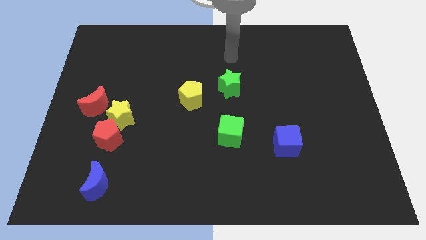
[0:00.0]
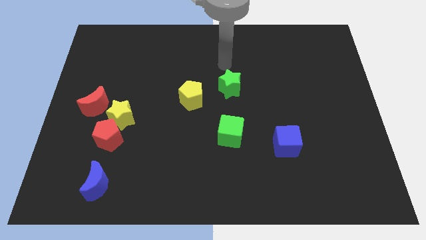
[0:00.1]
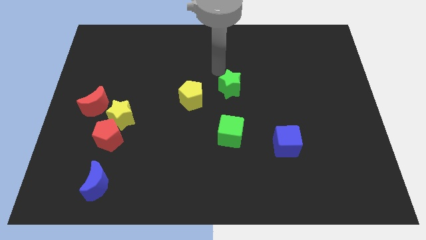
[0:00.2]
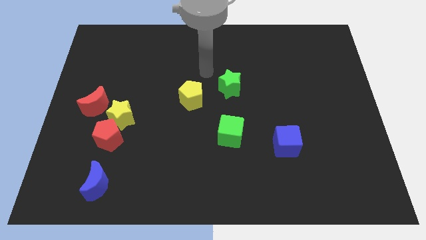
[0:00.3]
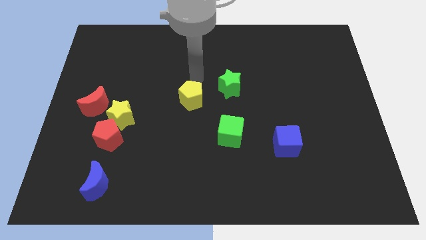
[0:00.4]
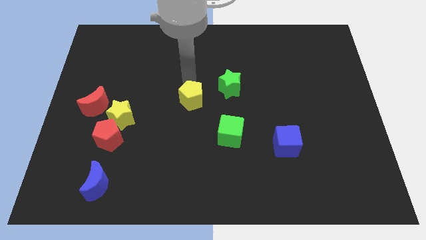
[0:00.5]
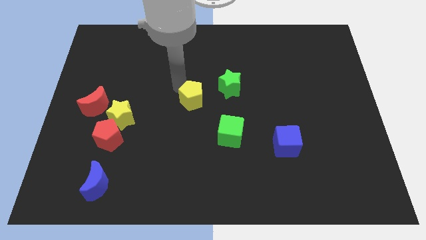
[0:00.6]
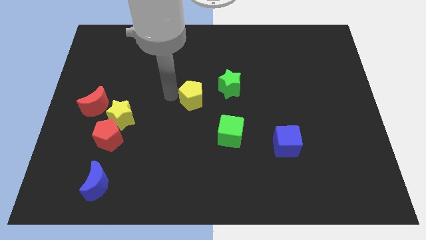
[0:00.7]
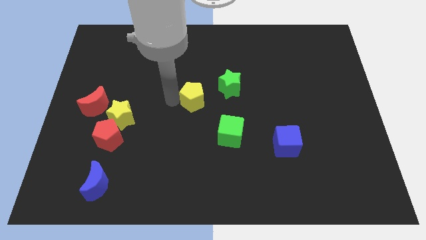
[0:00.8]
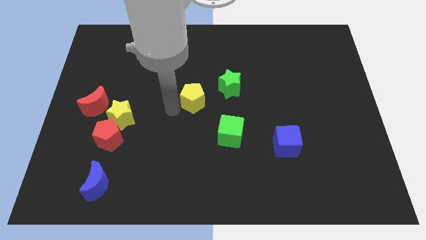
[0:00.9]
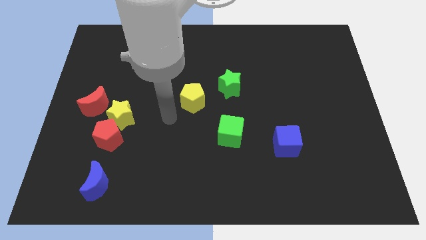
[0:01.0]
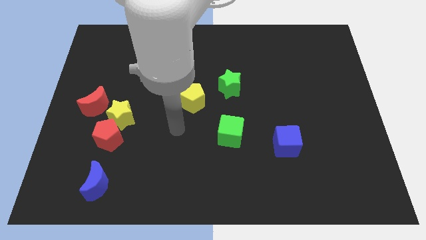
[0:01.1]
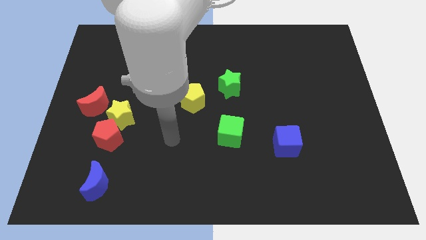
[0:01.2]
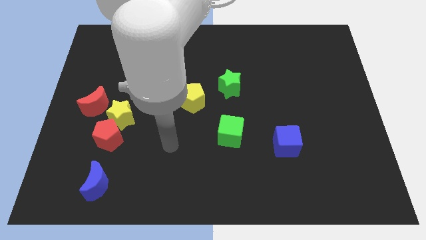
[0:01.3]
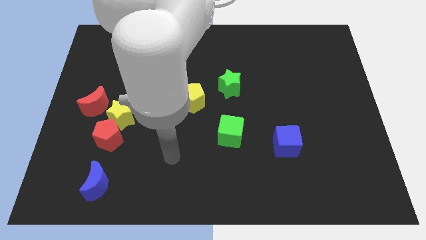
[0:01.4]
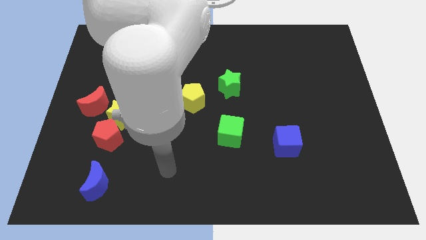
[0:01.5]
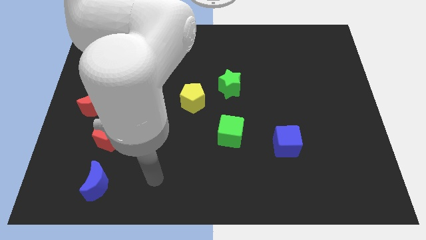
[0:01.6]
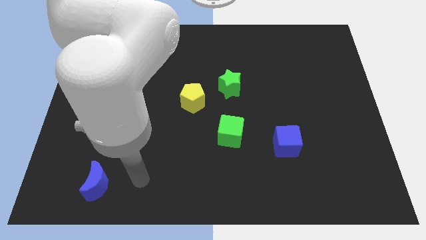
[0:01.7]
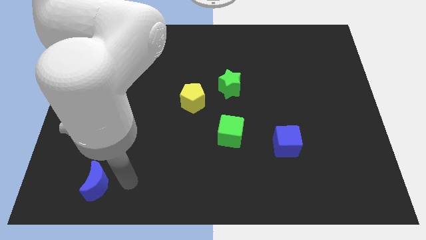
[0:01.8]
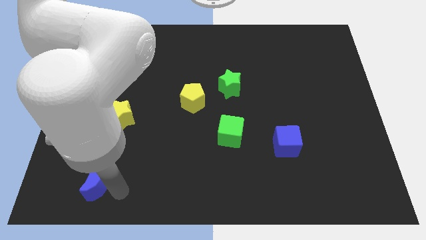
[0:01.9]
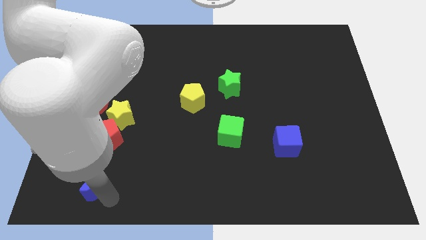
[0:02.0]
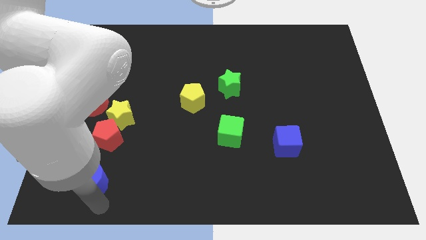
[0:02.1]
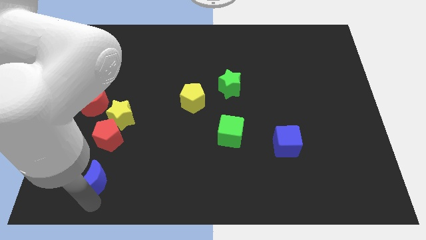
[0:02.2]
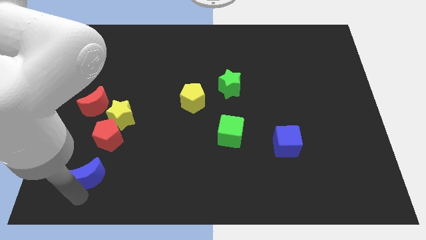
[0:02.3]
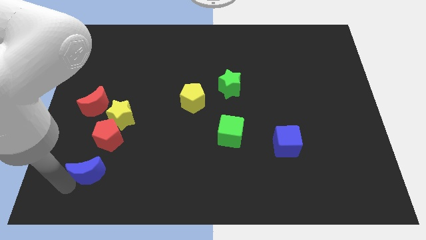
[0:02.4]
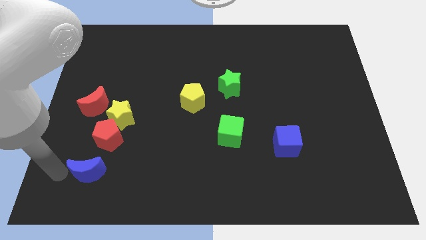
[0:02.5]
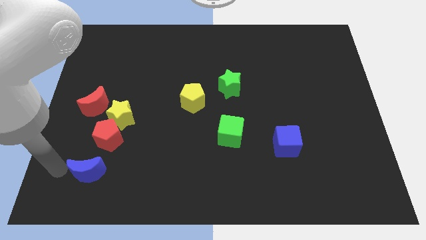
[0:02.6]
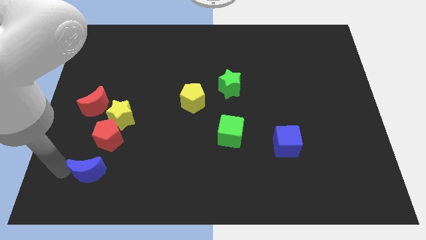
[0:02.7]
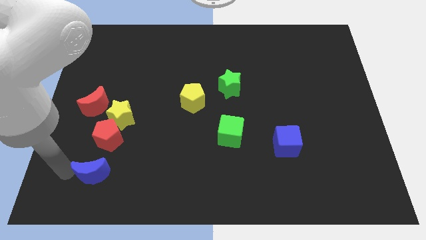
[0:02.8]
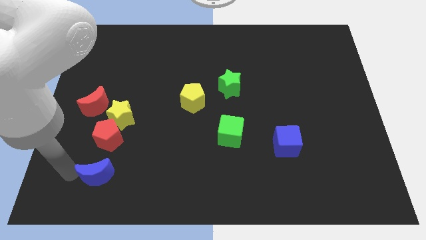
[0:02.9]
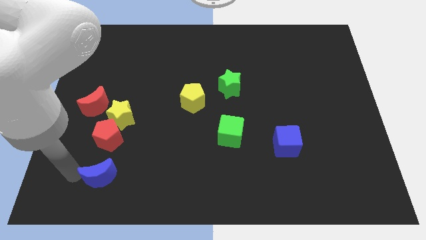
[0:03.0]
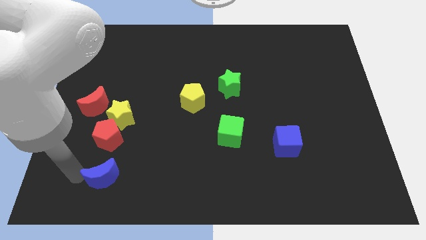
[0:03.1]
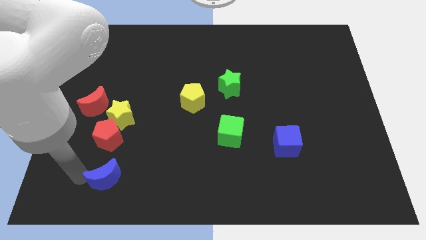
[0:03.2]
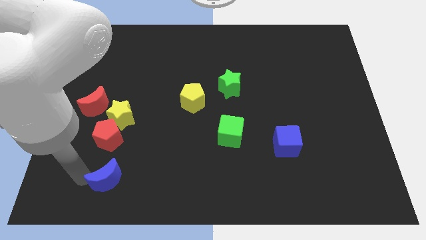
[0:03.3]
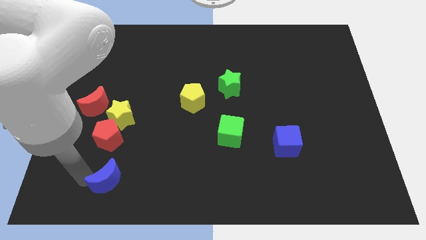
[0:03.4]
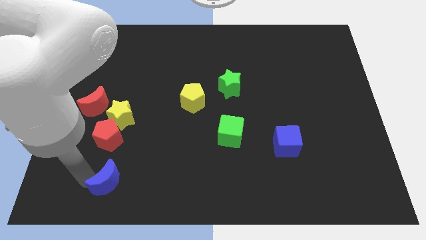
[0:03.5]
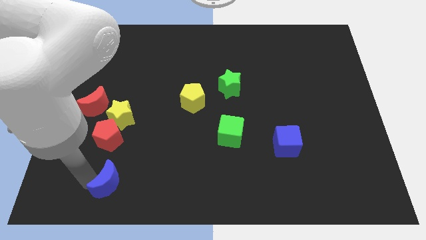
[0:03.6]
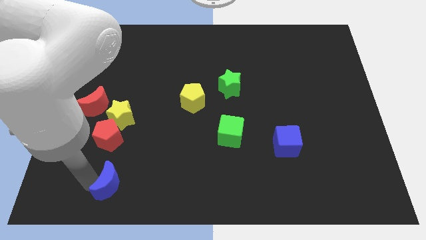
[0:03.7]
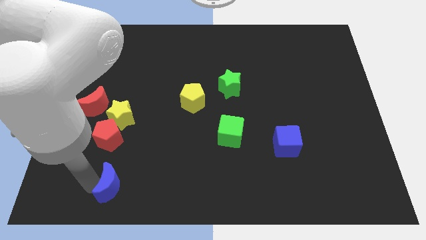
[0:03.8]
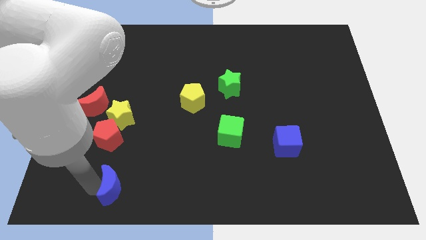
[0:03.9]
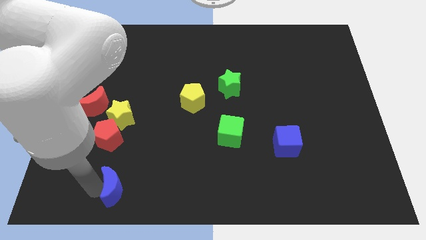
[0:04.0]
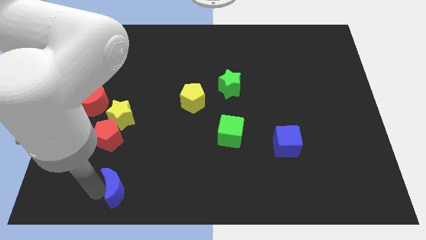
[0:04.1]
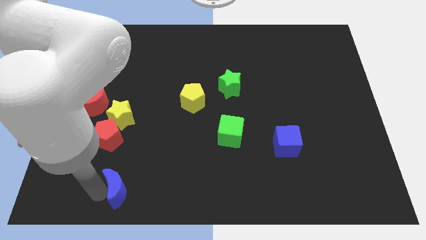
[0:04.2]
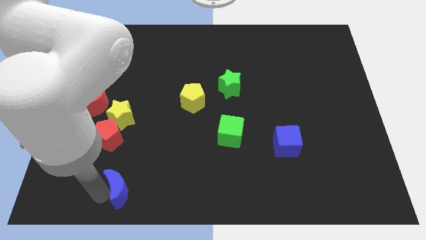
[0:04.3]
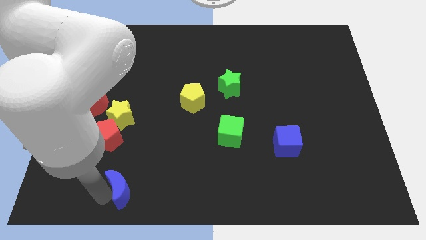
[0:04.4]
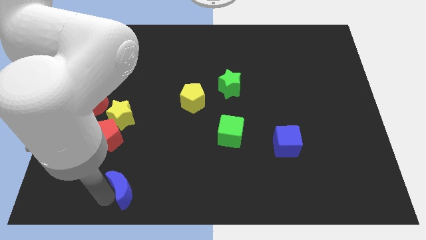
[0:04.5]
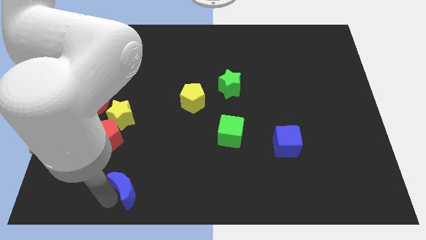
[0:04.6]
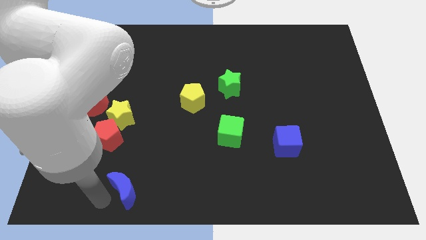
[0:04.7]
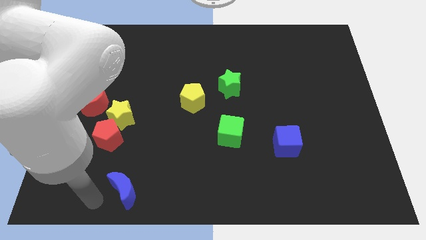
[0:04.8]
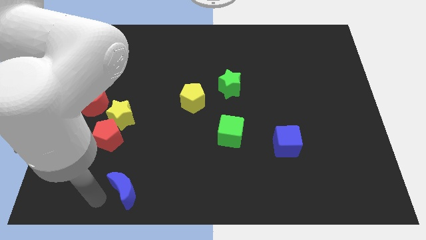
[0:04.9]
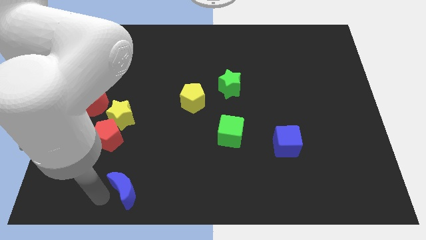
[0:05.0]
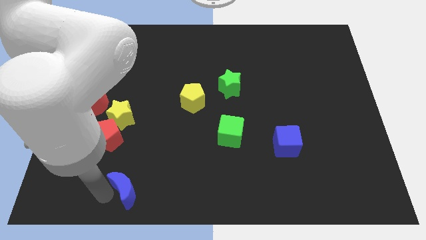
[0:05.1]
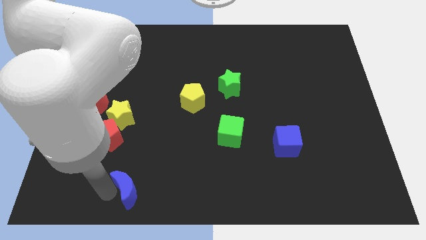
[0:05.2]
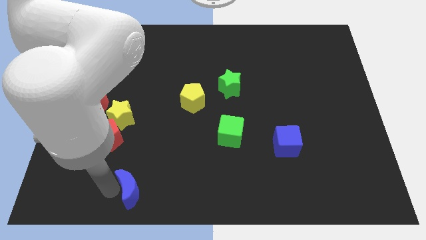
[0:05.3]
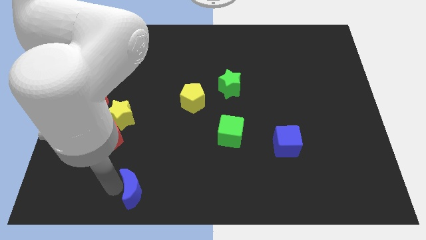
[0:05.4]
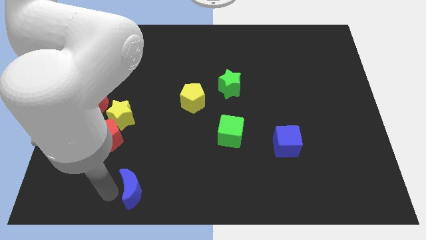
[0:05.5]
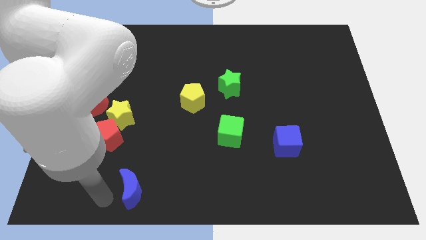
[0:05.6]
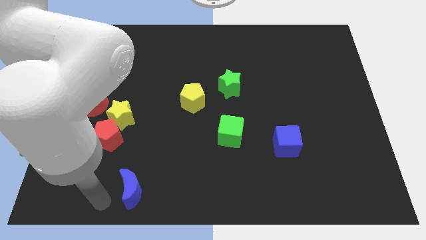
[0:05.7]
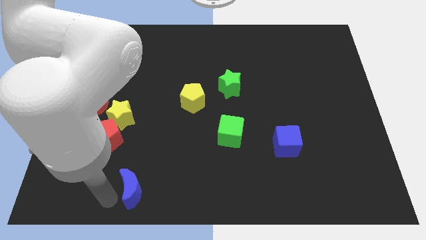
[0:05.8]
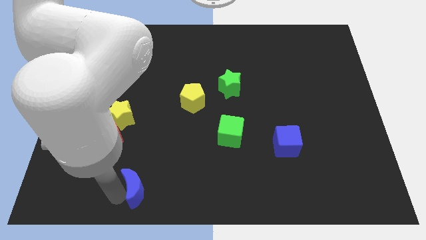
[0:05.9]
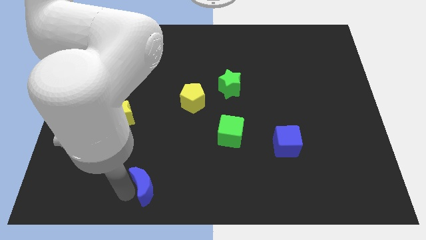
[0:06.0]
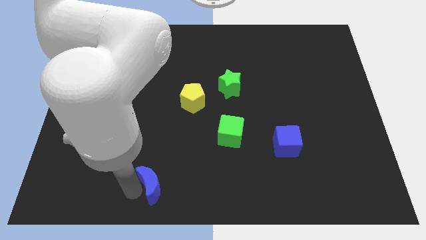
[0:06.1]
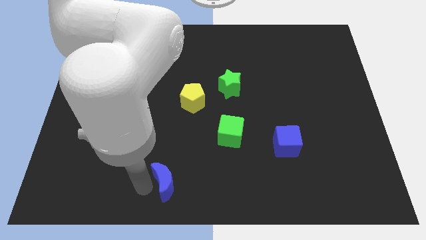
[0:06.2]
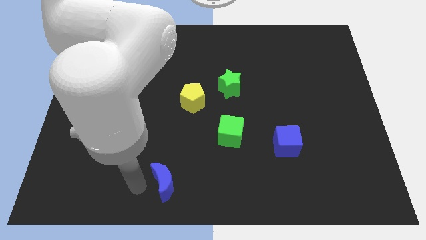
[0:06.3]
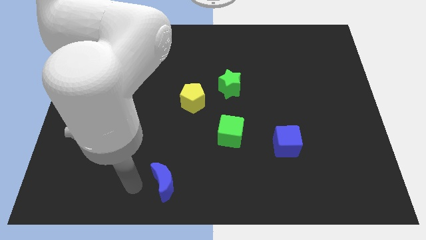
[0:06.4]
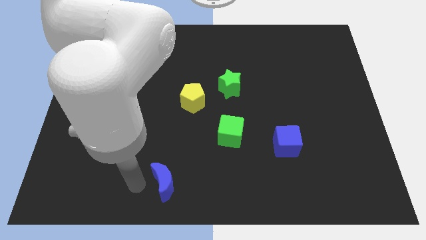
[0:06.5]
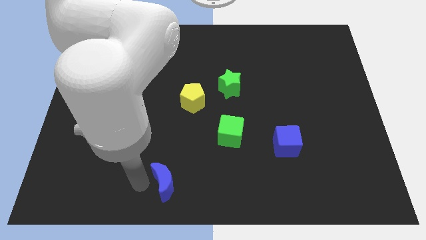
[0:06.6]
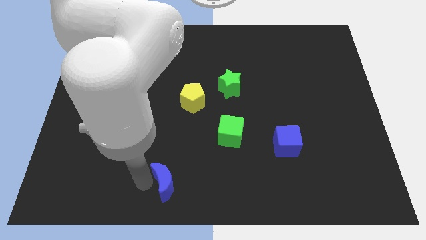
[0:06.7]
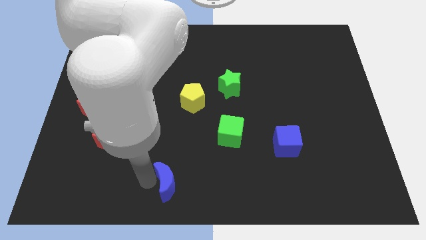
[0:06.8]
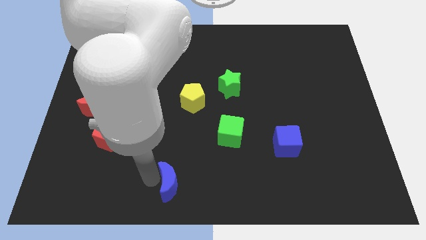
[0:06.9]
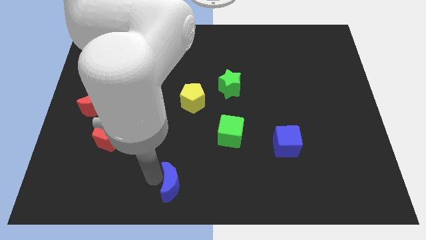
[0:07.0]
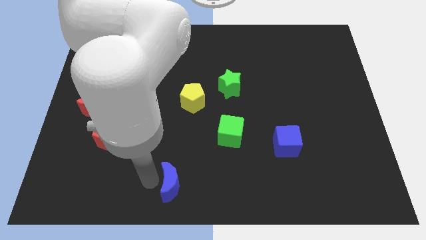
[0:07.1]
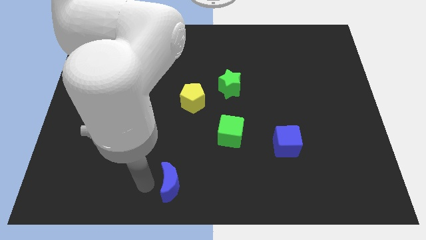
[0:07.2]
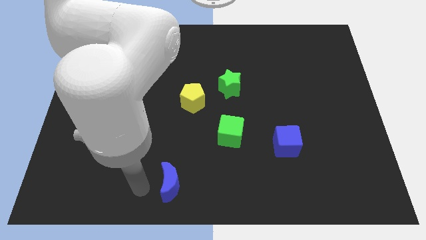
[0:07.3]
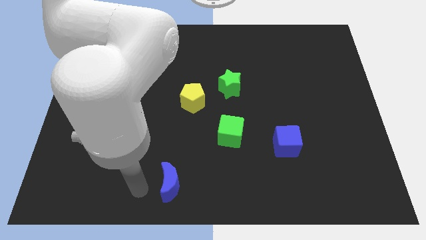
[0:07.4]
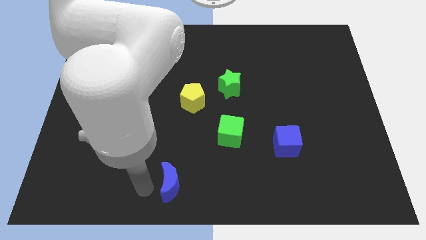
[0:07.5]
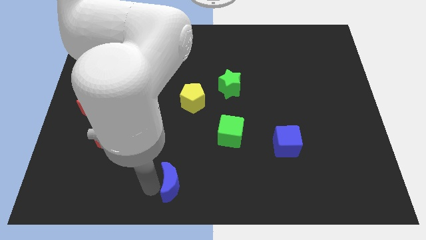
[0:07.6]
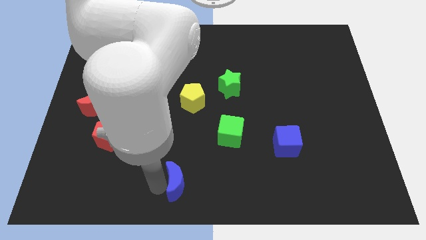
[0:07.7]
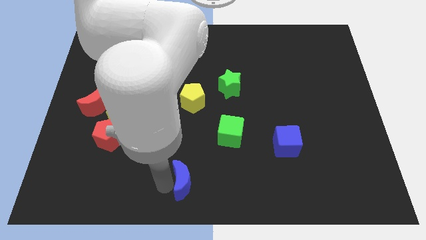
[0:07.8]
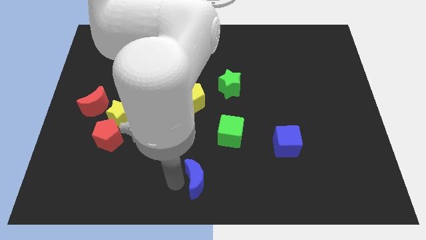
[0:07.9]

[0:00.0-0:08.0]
slide the blue moon to the right

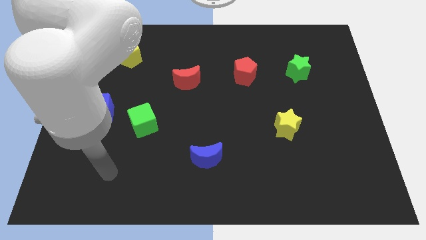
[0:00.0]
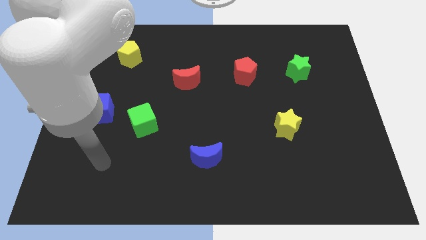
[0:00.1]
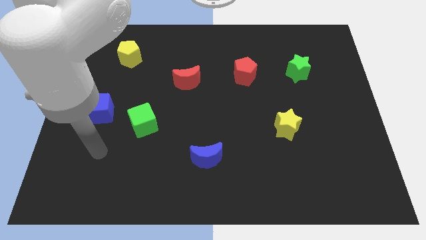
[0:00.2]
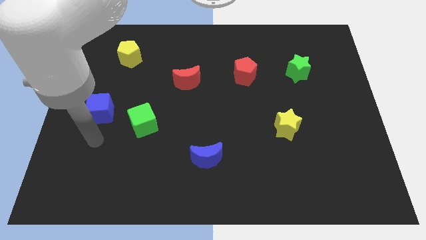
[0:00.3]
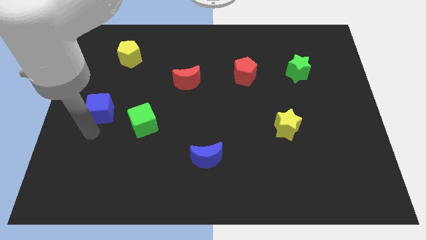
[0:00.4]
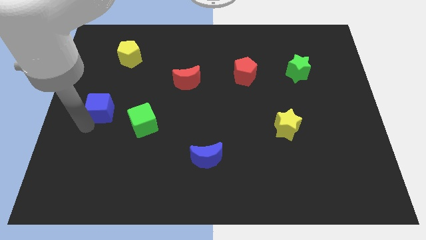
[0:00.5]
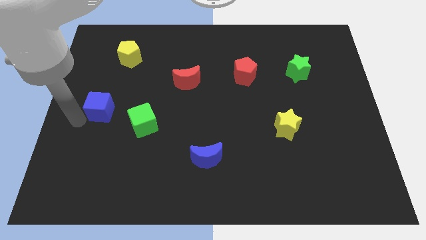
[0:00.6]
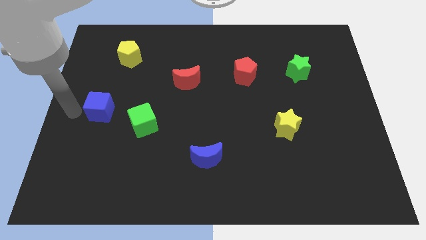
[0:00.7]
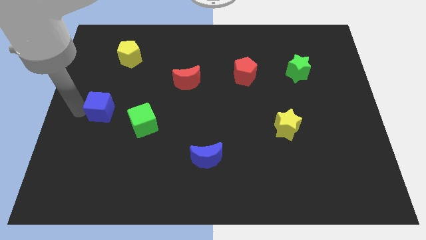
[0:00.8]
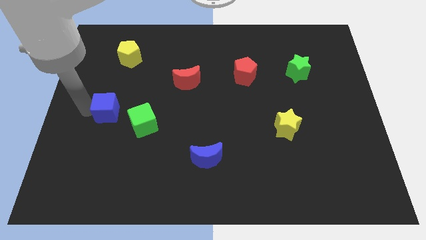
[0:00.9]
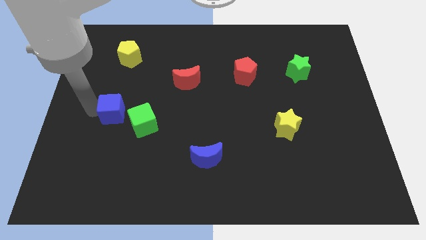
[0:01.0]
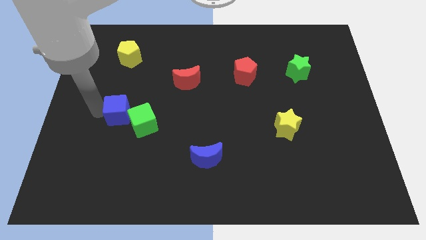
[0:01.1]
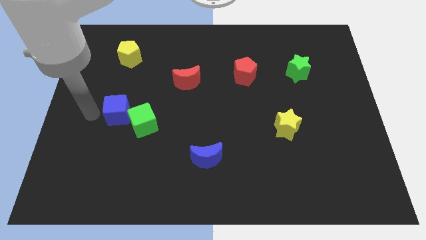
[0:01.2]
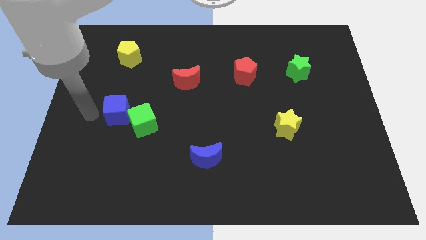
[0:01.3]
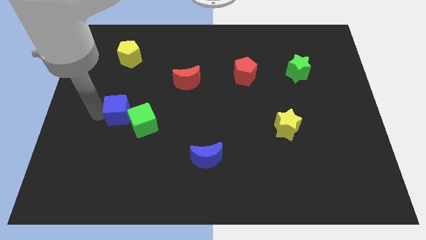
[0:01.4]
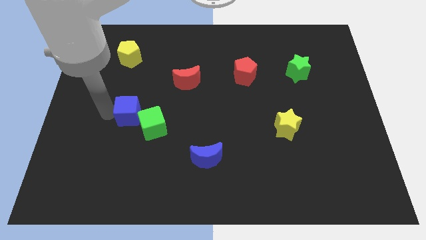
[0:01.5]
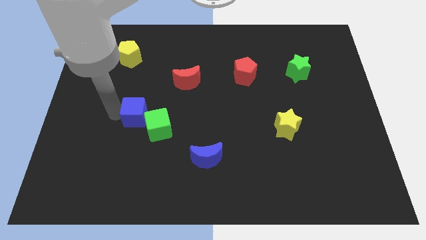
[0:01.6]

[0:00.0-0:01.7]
move the blue cube slightly right
